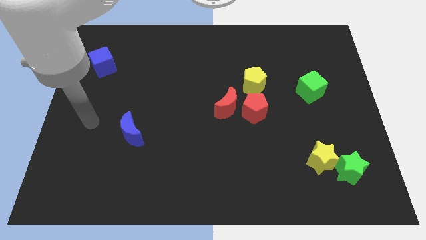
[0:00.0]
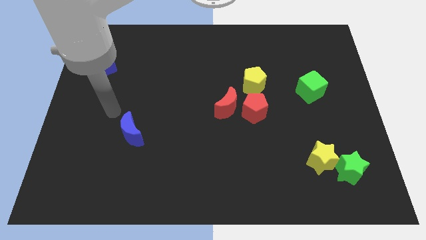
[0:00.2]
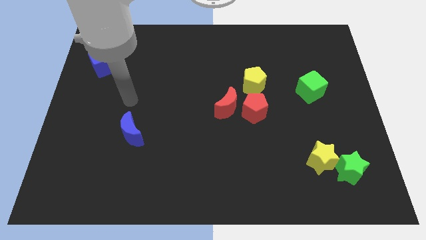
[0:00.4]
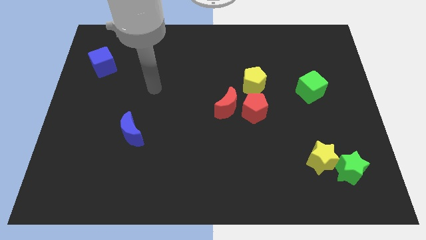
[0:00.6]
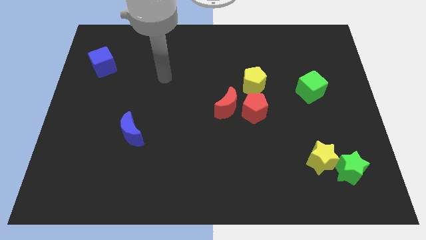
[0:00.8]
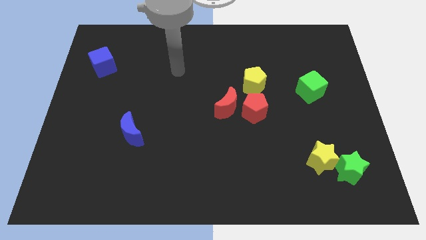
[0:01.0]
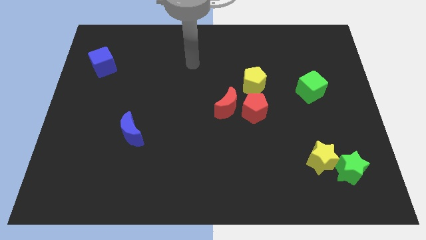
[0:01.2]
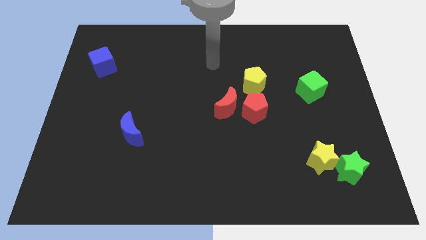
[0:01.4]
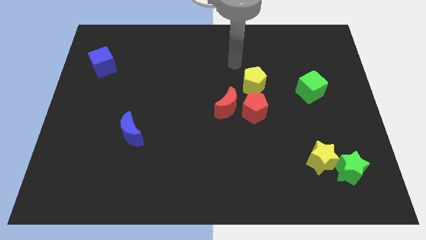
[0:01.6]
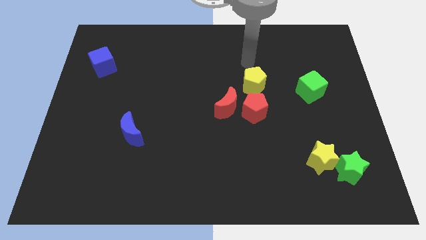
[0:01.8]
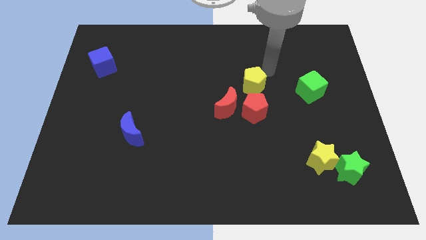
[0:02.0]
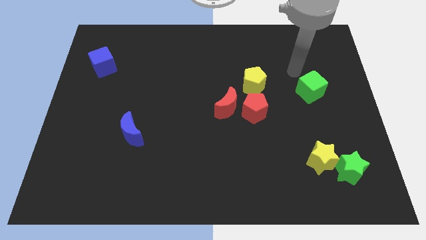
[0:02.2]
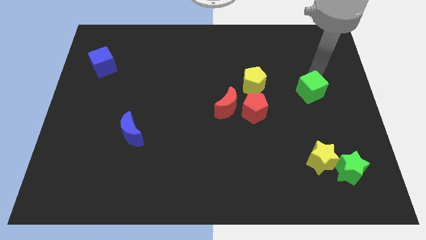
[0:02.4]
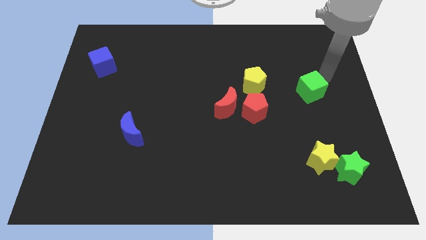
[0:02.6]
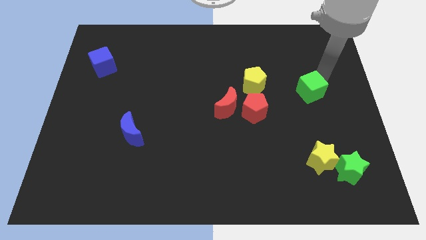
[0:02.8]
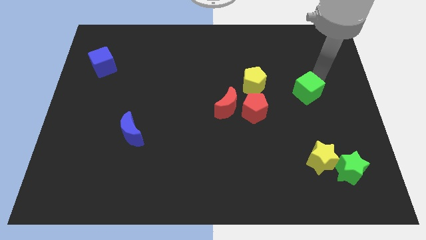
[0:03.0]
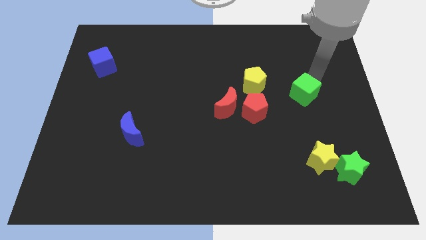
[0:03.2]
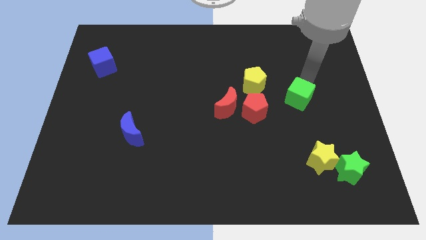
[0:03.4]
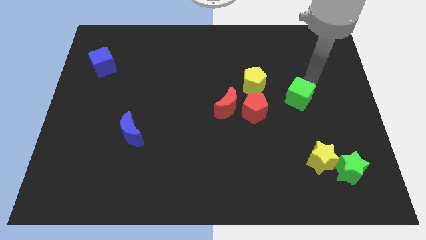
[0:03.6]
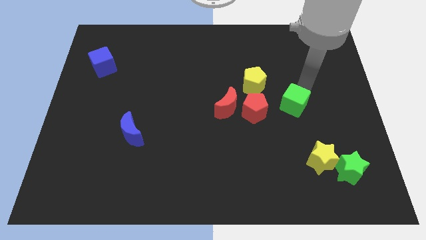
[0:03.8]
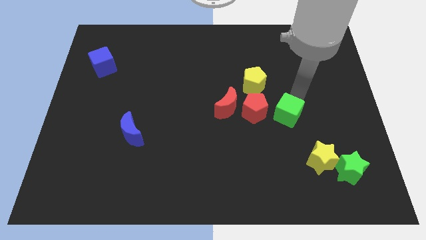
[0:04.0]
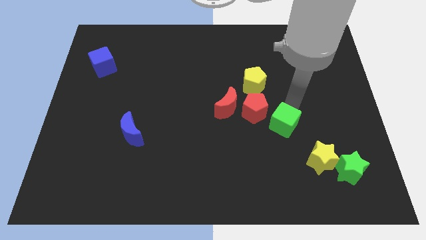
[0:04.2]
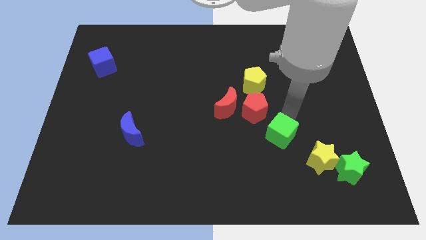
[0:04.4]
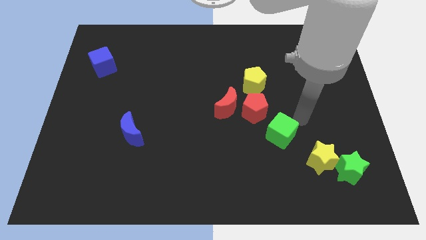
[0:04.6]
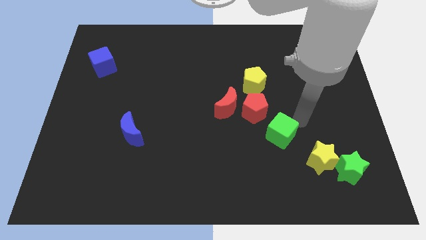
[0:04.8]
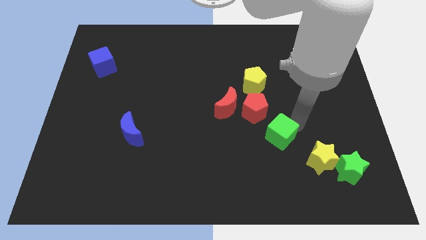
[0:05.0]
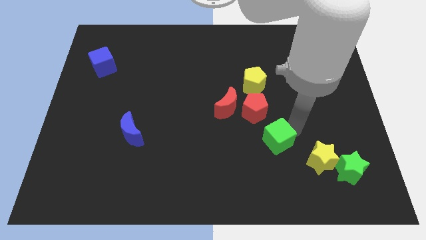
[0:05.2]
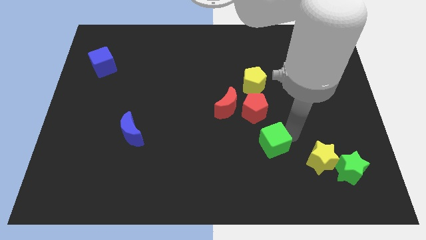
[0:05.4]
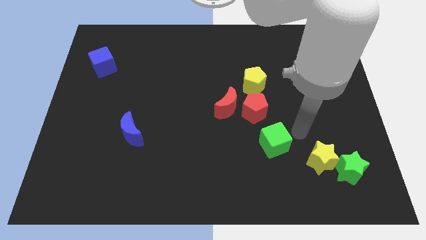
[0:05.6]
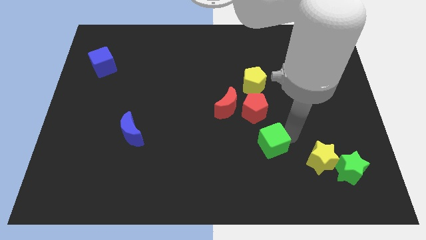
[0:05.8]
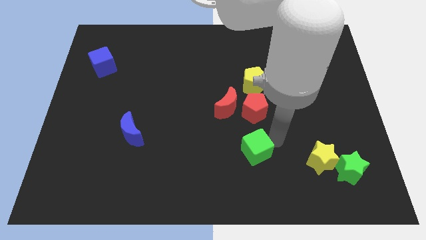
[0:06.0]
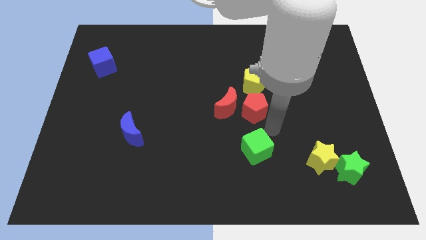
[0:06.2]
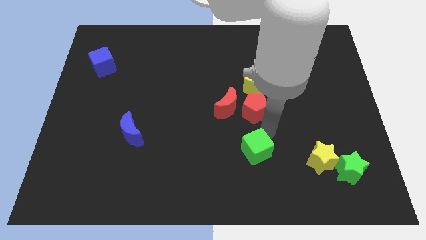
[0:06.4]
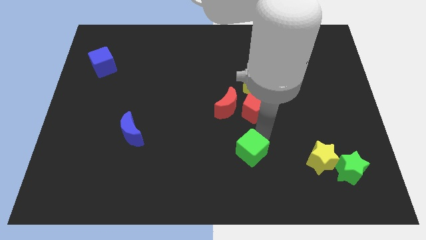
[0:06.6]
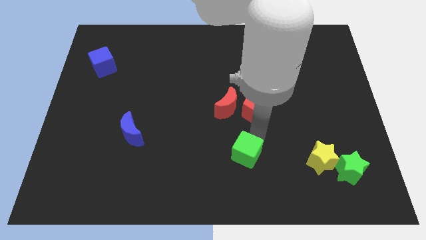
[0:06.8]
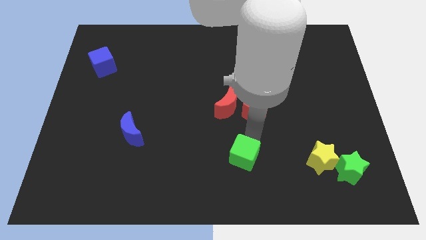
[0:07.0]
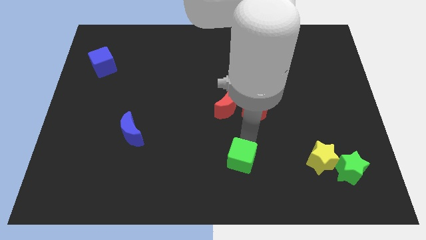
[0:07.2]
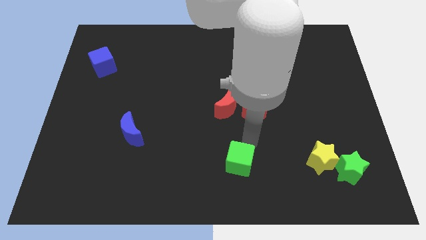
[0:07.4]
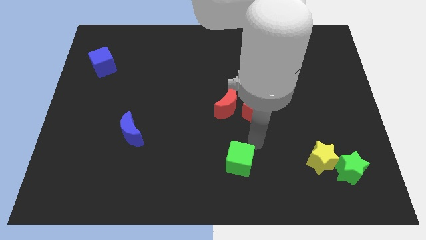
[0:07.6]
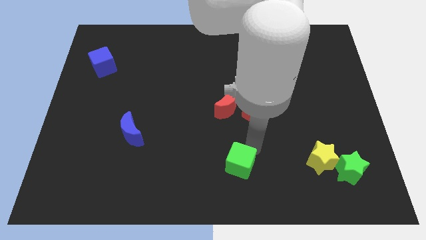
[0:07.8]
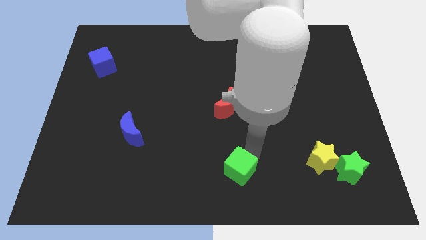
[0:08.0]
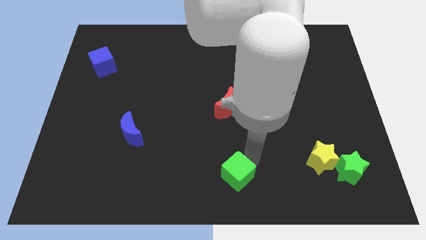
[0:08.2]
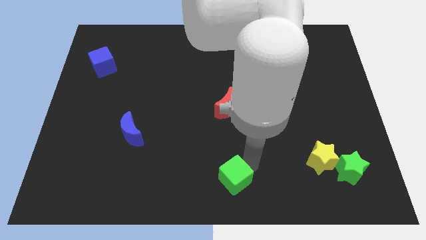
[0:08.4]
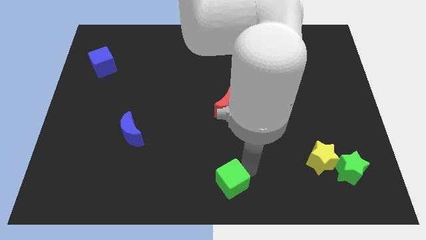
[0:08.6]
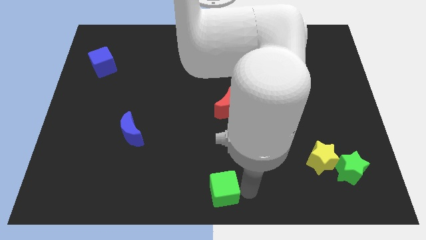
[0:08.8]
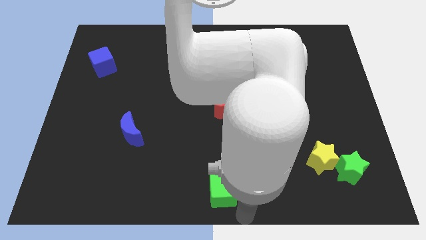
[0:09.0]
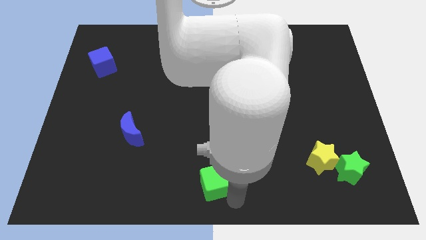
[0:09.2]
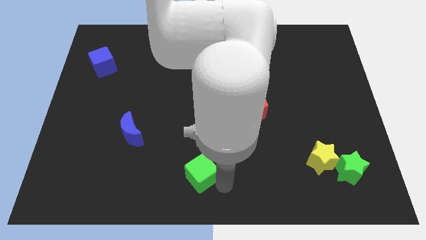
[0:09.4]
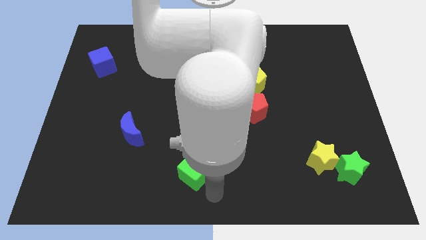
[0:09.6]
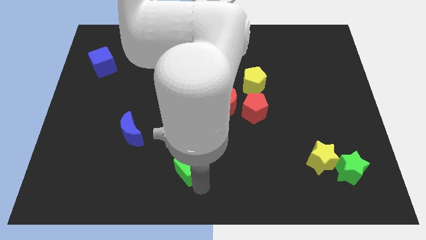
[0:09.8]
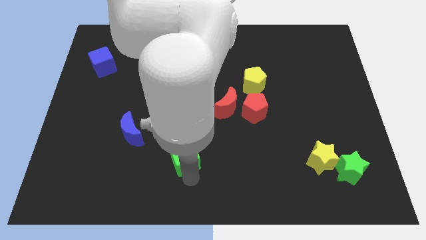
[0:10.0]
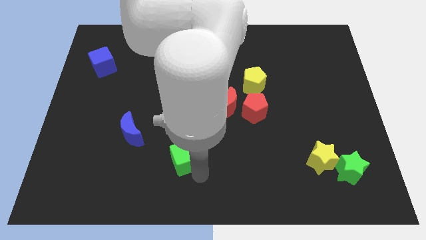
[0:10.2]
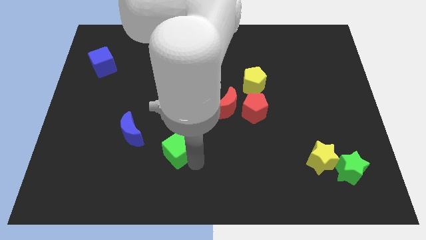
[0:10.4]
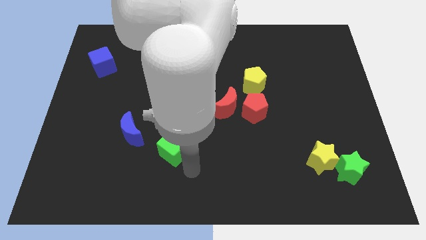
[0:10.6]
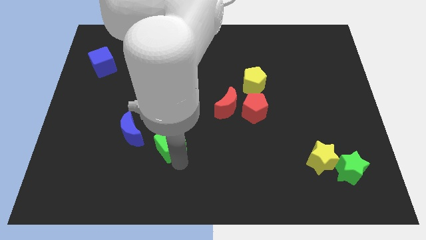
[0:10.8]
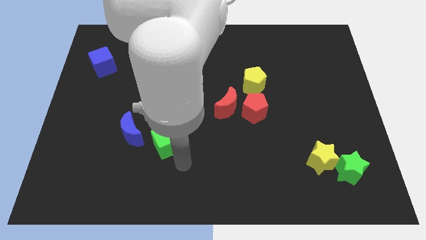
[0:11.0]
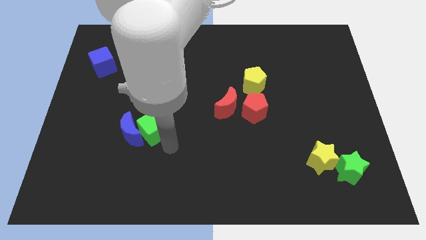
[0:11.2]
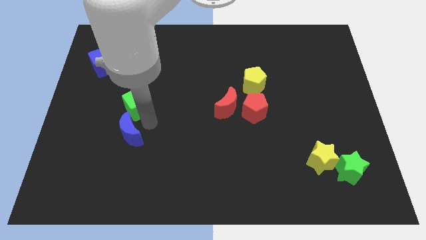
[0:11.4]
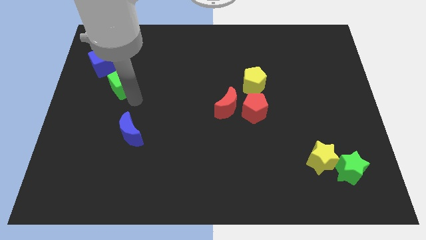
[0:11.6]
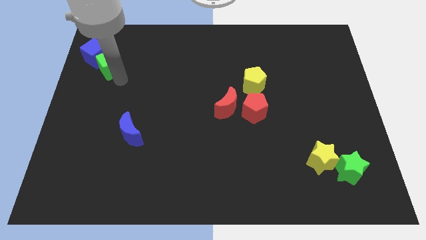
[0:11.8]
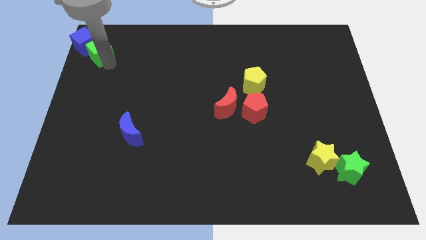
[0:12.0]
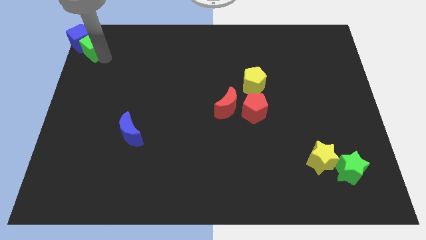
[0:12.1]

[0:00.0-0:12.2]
put the green cube to the top left of the board
